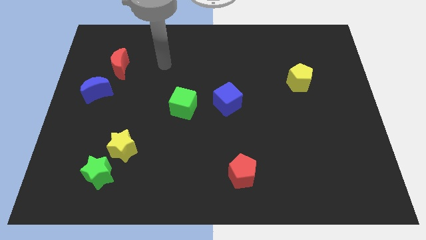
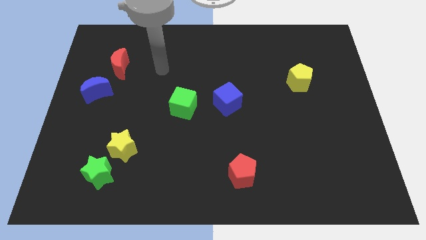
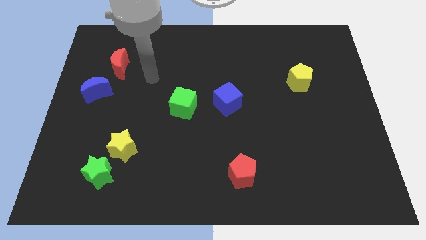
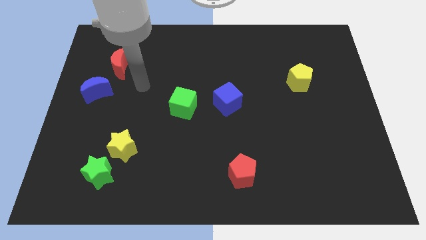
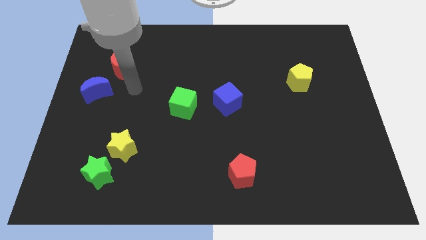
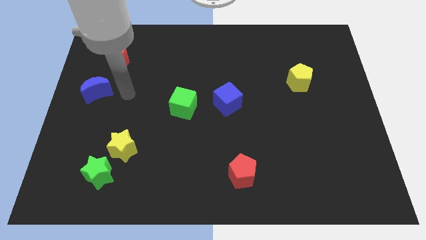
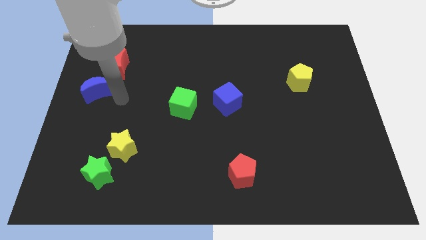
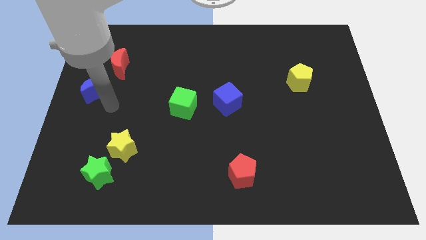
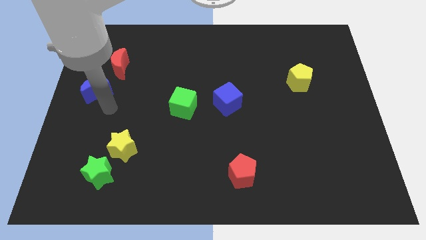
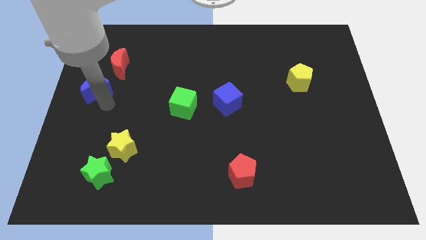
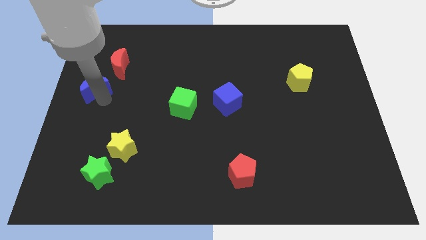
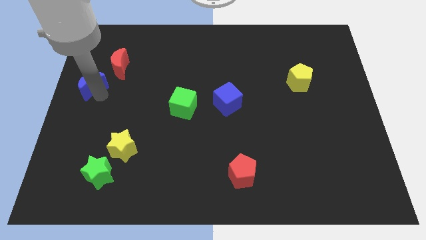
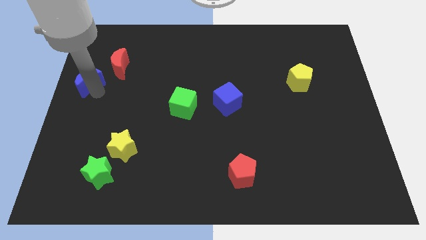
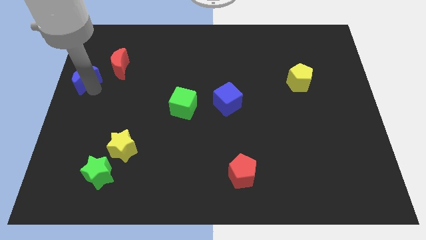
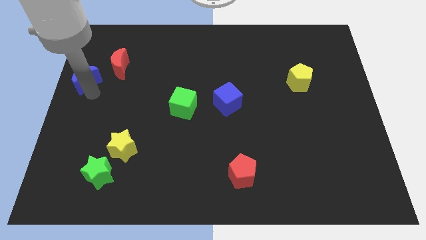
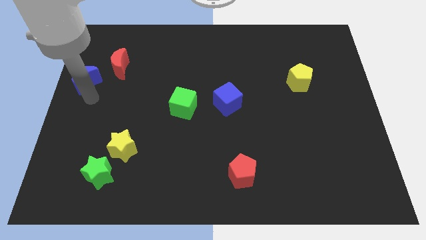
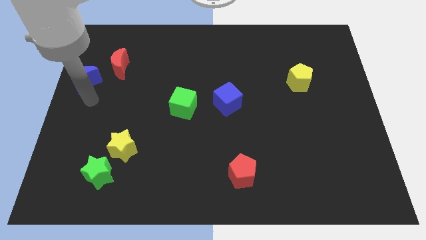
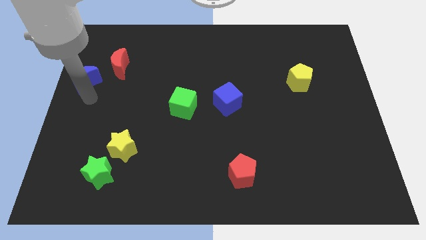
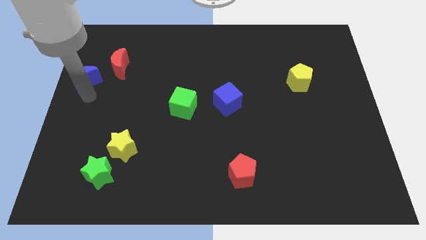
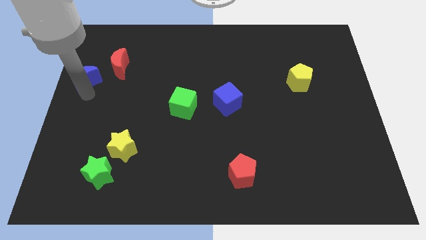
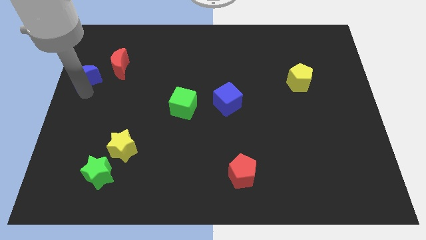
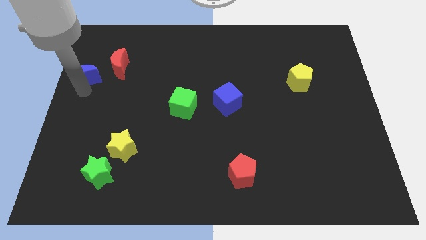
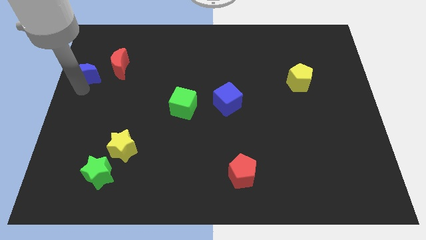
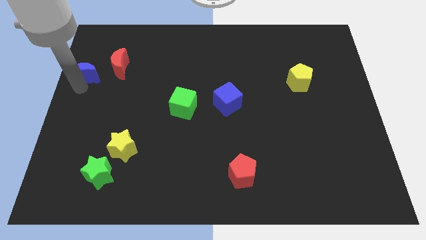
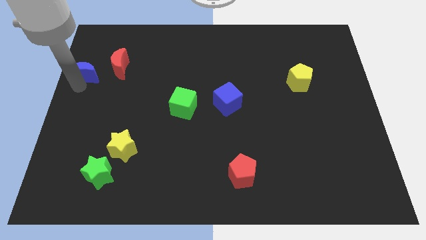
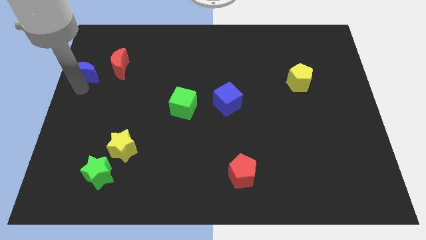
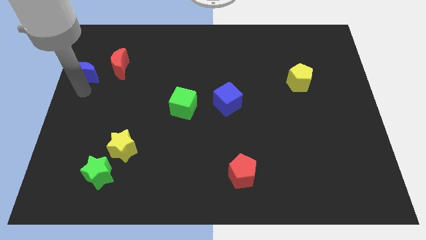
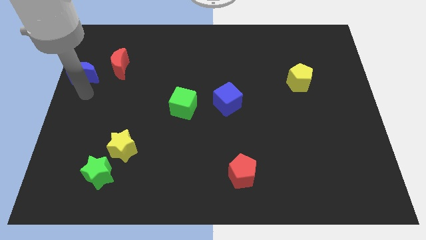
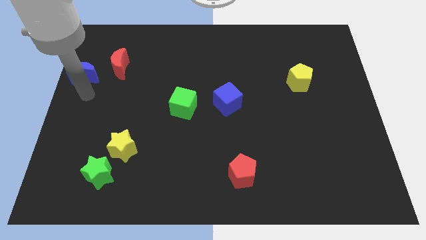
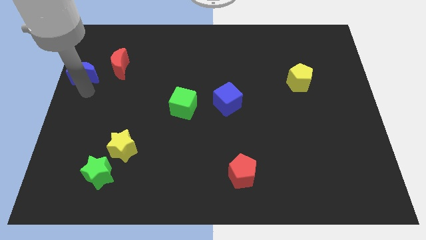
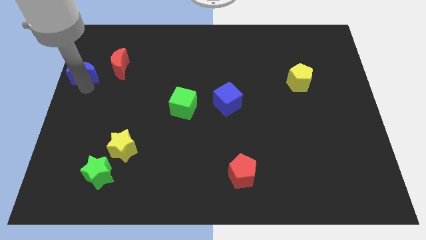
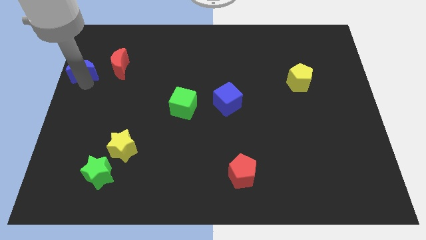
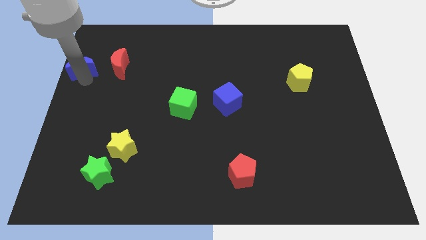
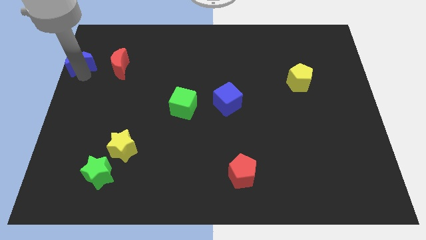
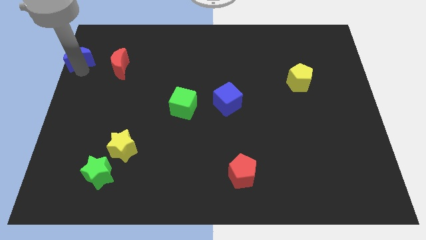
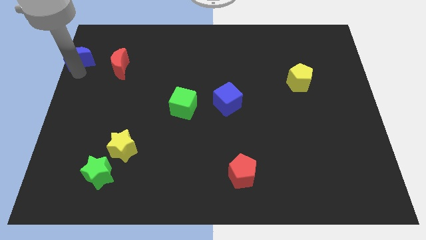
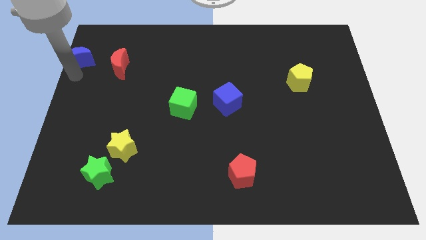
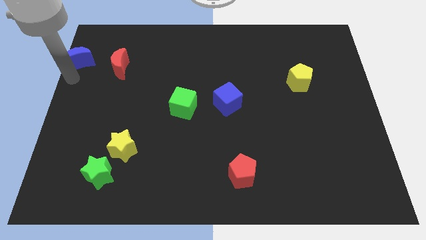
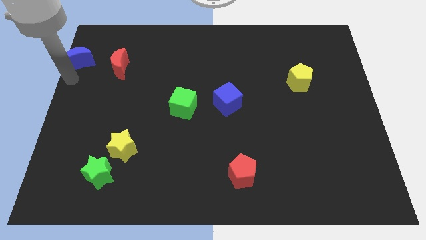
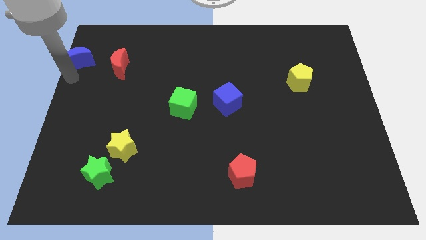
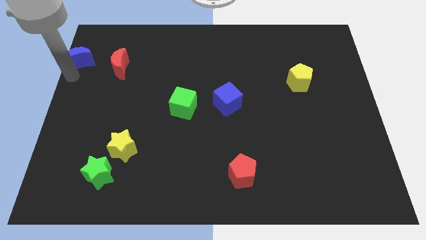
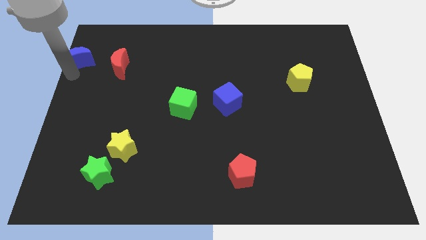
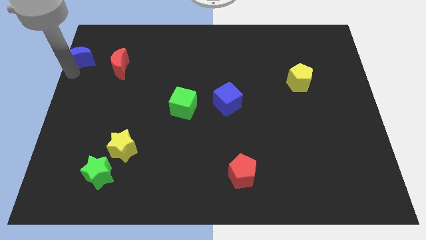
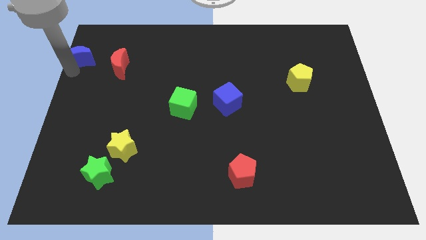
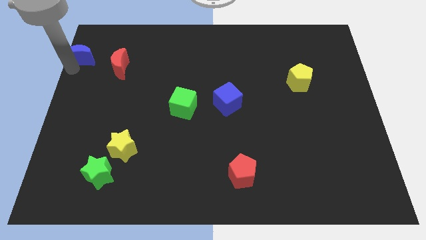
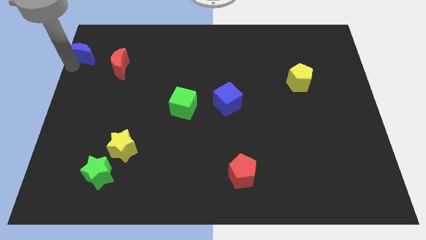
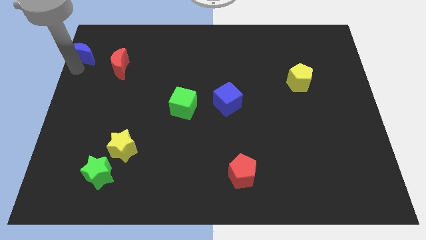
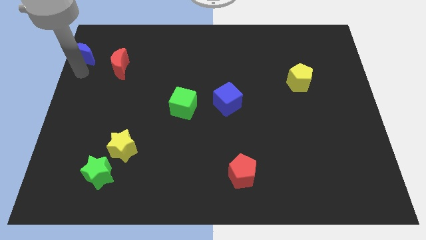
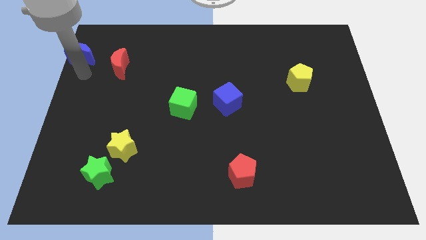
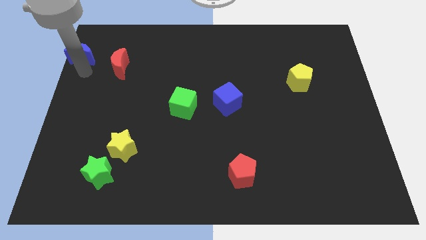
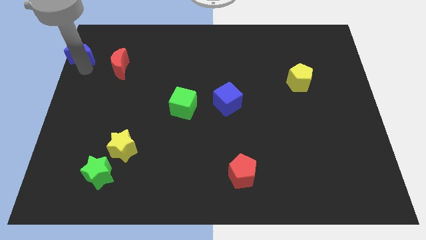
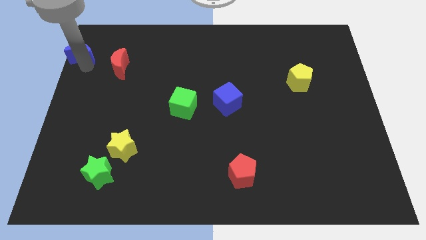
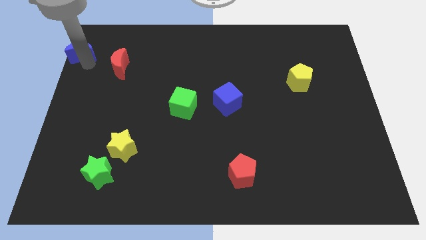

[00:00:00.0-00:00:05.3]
slide the blue moon to the top left
